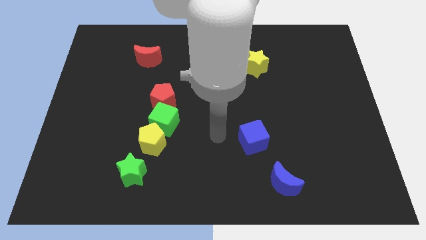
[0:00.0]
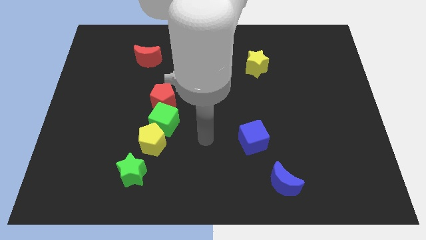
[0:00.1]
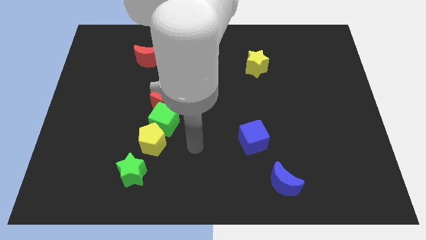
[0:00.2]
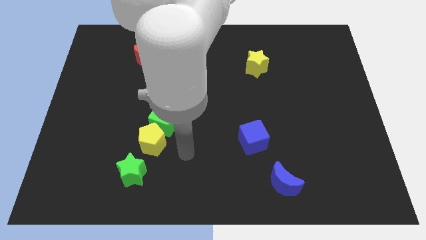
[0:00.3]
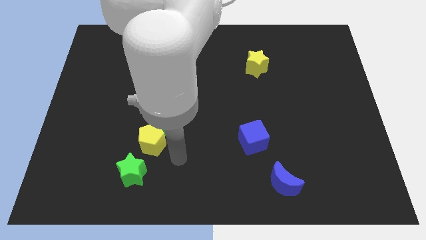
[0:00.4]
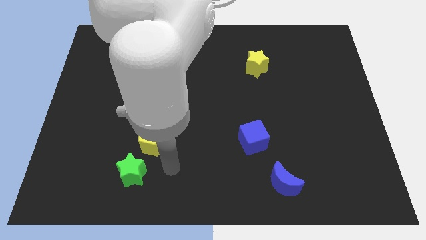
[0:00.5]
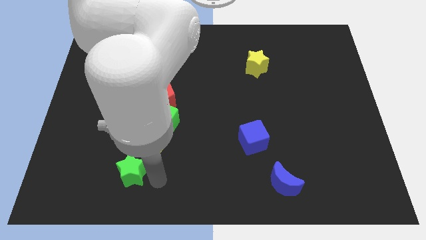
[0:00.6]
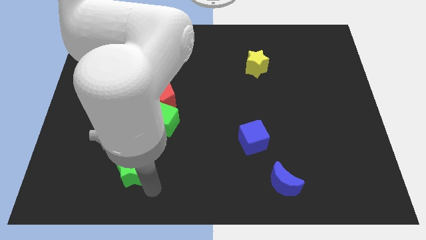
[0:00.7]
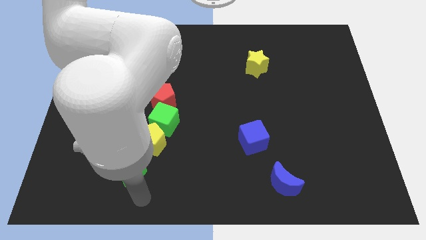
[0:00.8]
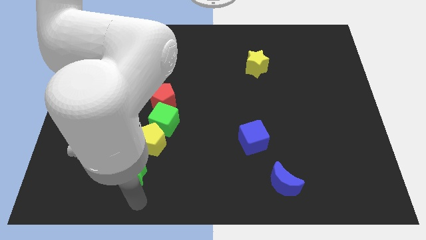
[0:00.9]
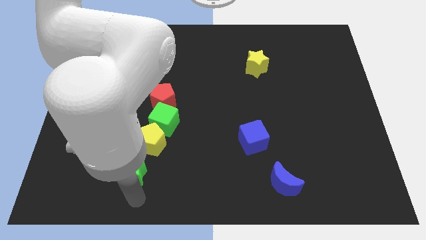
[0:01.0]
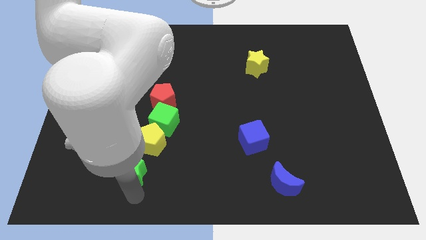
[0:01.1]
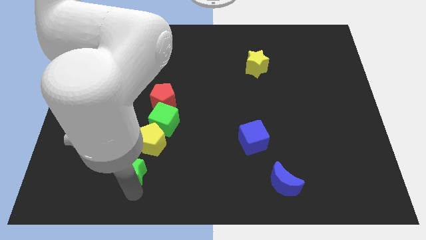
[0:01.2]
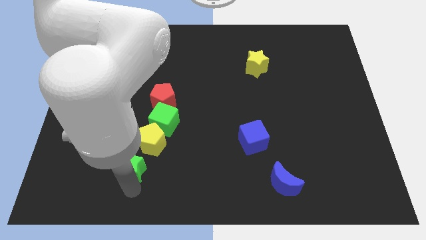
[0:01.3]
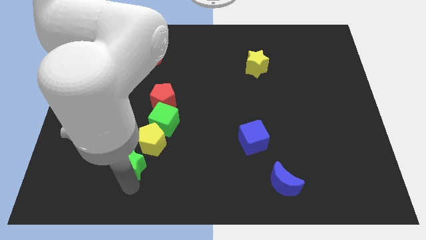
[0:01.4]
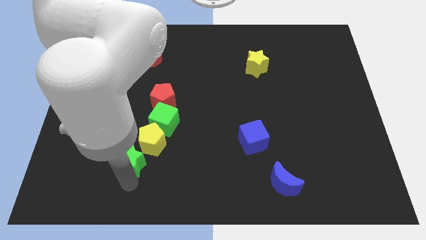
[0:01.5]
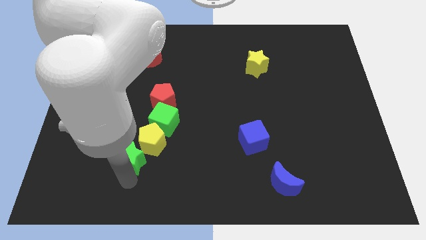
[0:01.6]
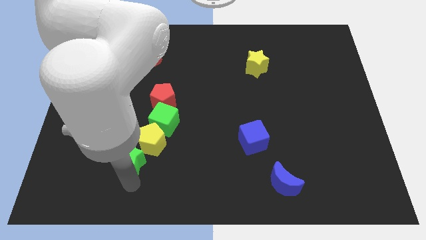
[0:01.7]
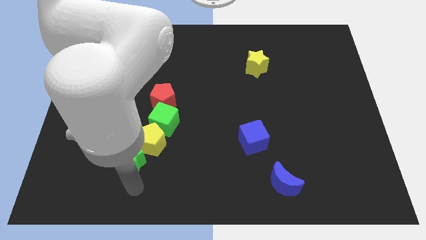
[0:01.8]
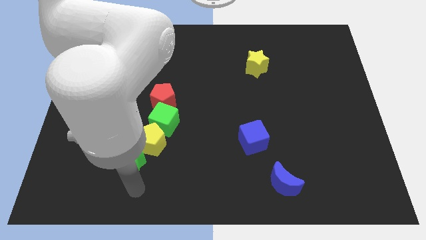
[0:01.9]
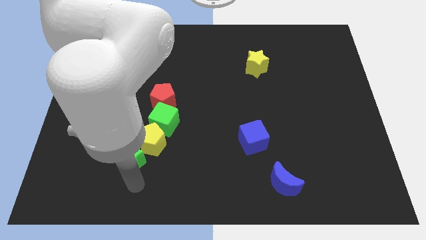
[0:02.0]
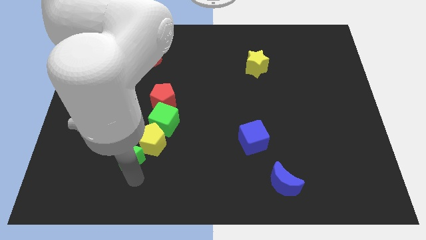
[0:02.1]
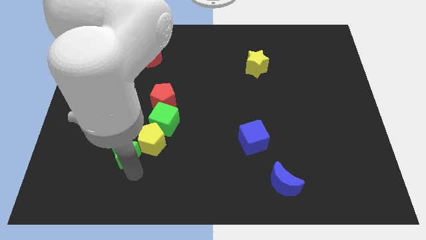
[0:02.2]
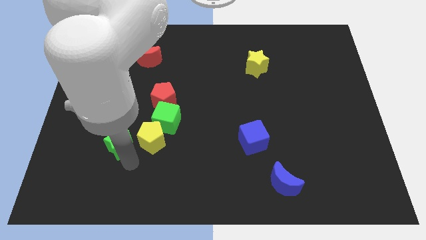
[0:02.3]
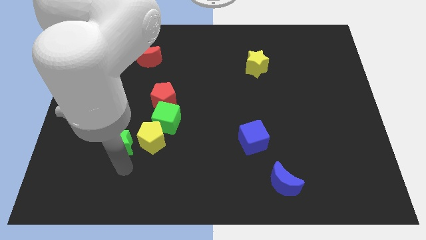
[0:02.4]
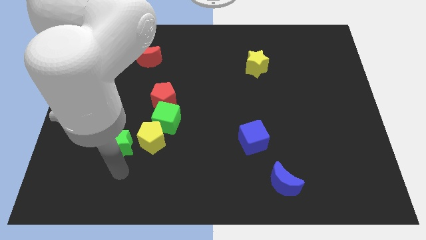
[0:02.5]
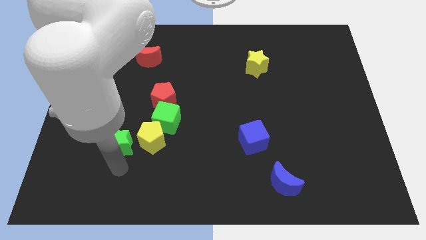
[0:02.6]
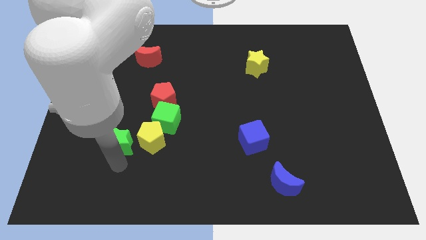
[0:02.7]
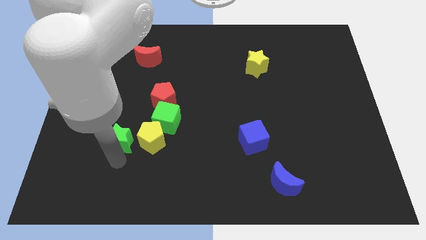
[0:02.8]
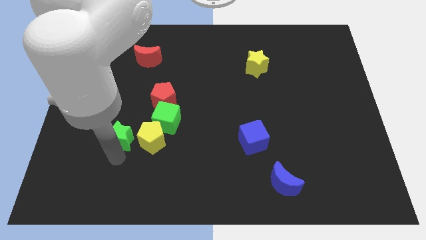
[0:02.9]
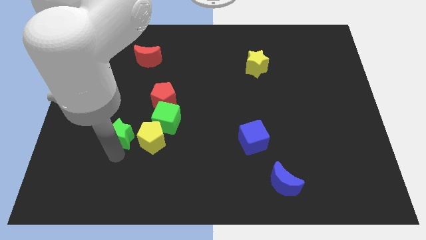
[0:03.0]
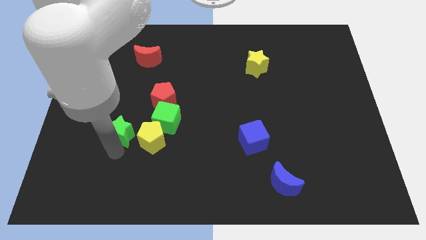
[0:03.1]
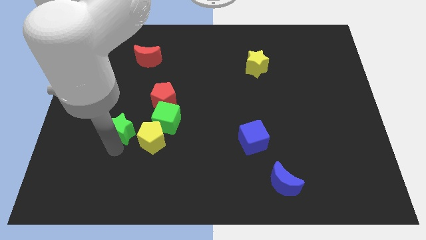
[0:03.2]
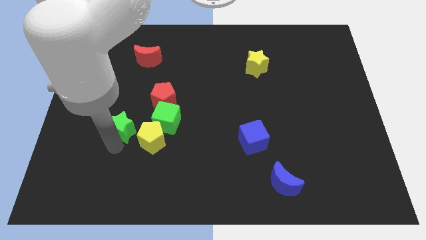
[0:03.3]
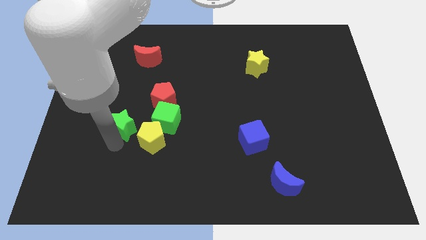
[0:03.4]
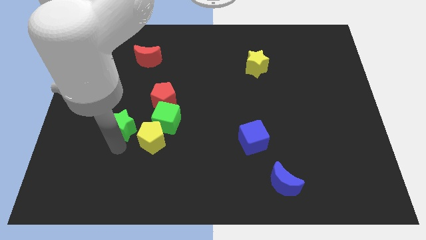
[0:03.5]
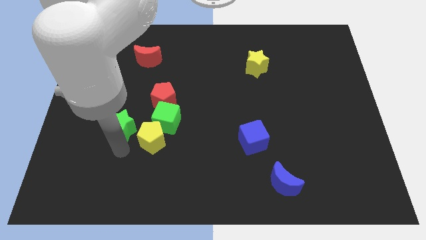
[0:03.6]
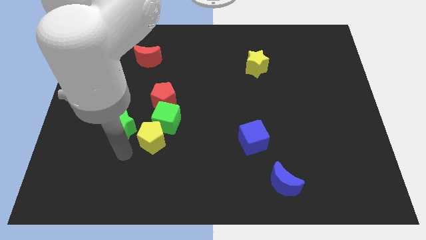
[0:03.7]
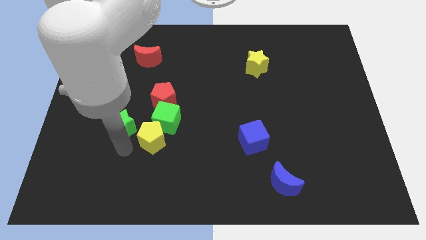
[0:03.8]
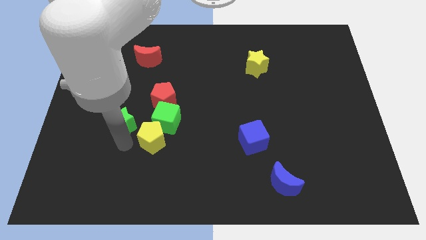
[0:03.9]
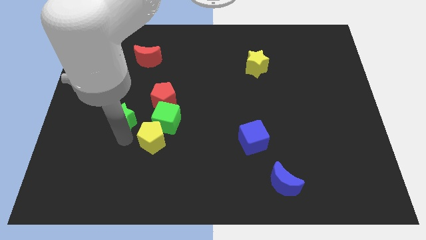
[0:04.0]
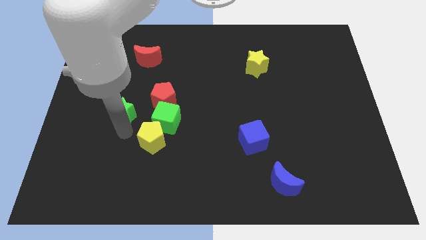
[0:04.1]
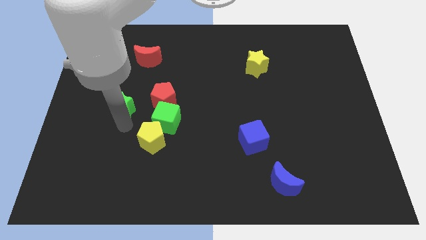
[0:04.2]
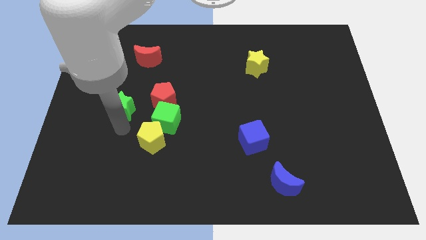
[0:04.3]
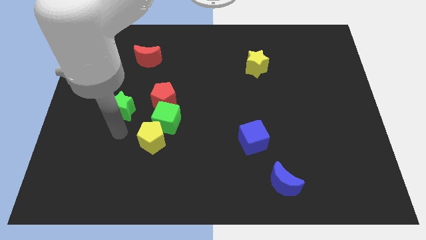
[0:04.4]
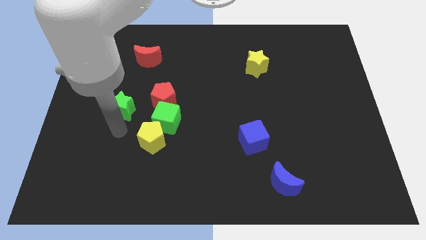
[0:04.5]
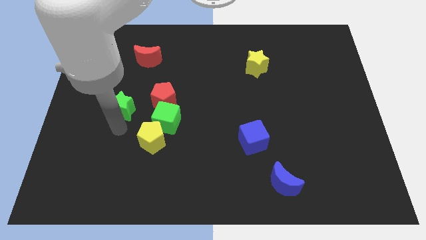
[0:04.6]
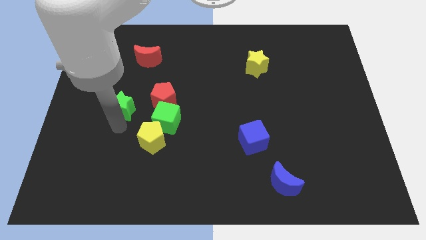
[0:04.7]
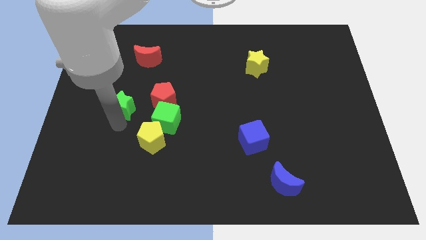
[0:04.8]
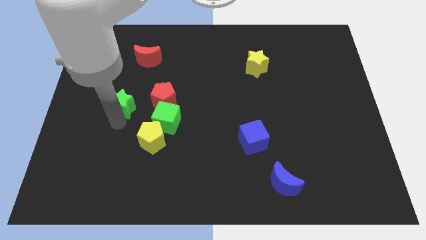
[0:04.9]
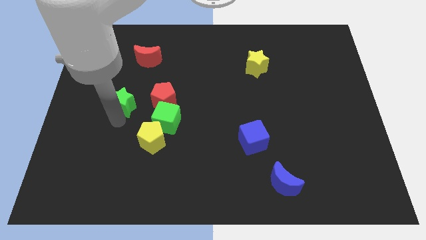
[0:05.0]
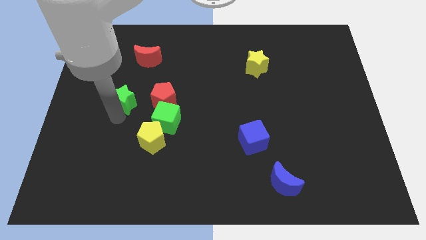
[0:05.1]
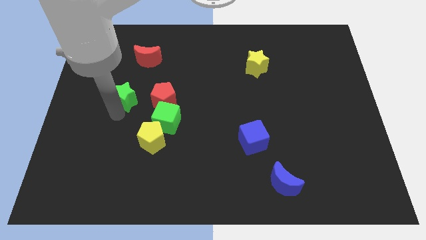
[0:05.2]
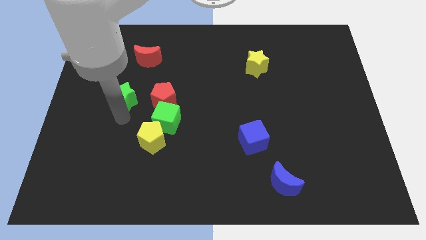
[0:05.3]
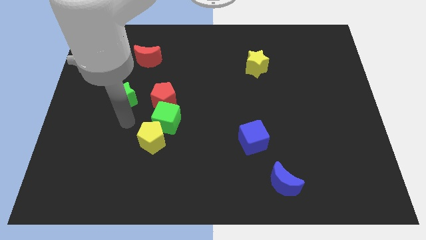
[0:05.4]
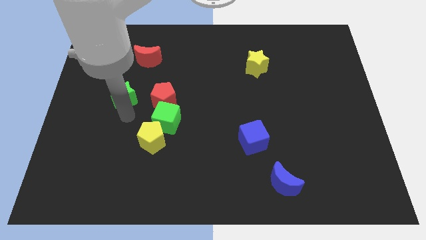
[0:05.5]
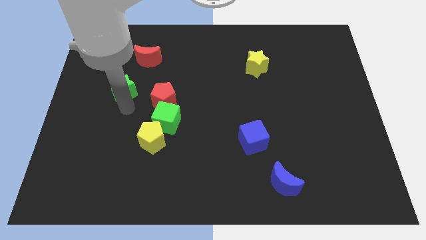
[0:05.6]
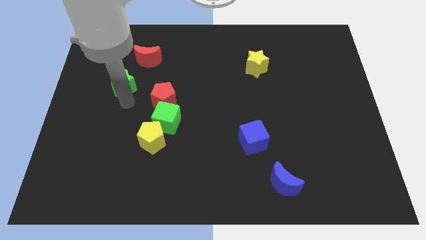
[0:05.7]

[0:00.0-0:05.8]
put the green star to the bottom left side of the red moon

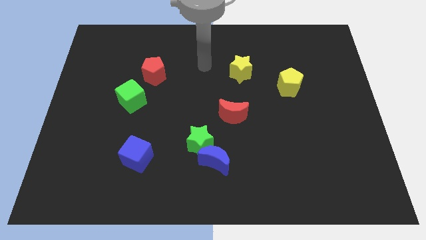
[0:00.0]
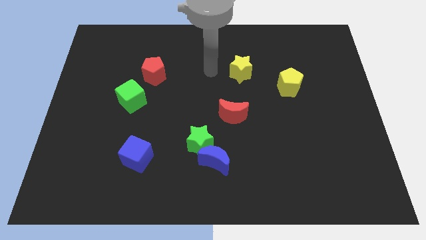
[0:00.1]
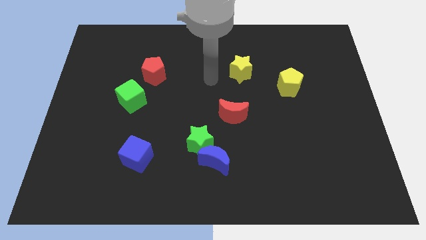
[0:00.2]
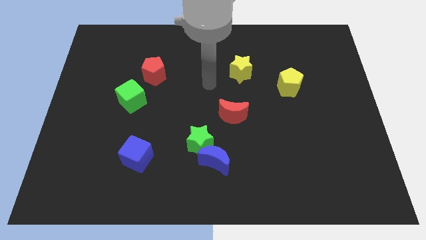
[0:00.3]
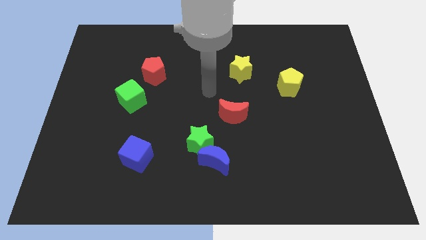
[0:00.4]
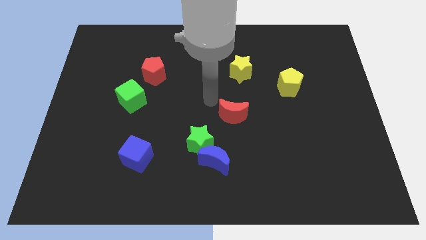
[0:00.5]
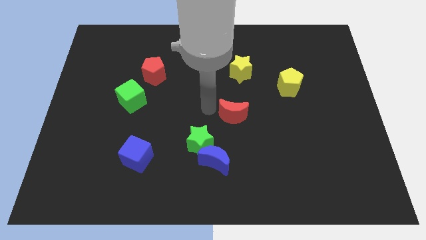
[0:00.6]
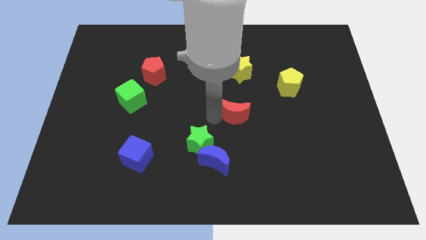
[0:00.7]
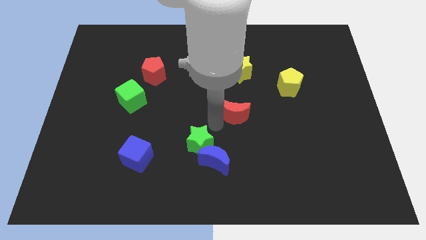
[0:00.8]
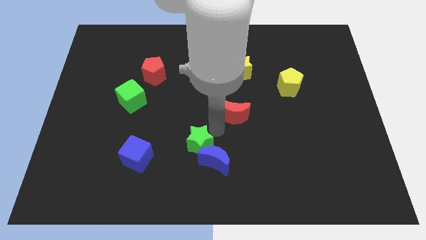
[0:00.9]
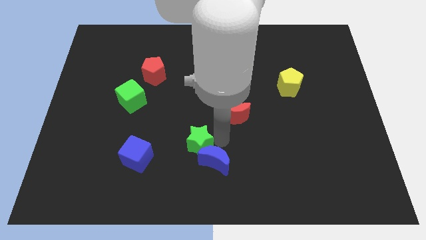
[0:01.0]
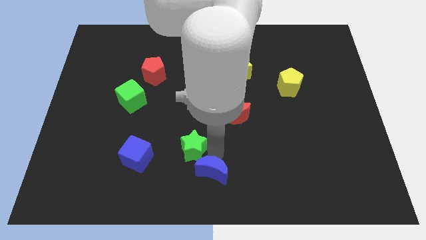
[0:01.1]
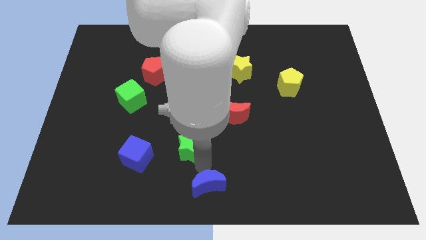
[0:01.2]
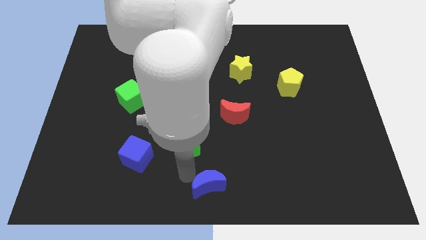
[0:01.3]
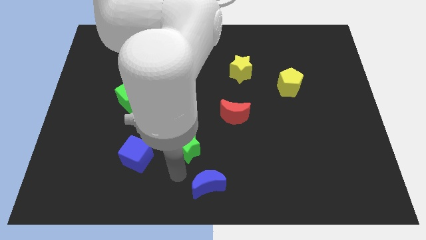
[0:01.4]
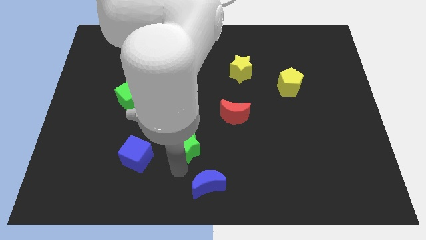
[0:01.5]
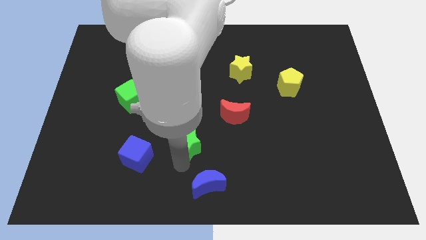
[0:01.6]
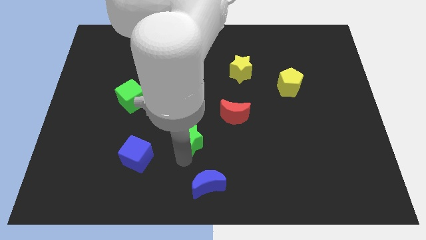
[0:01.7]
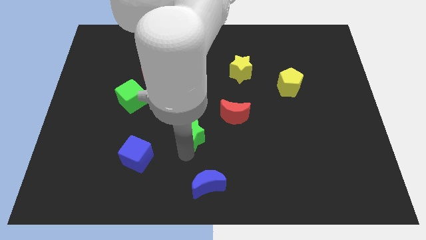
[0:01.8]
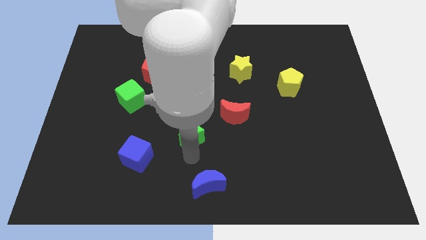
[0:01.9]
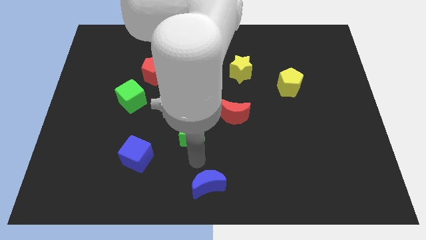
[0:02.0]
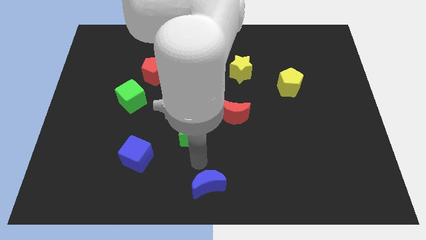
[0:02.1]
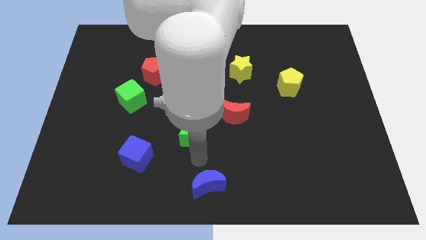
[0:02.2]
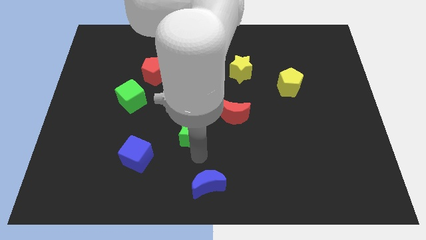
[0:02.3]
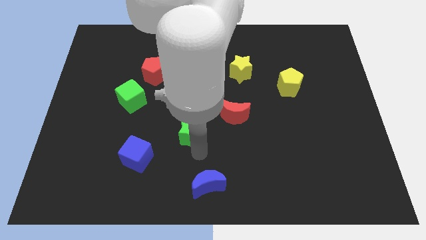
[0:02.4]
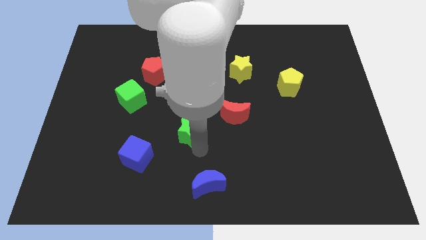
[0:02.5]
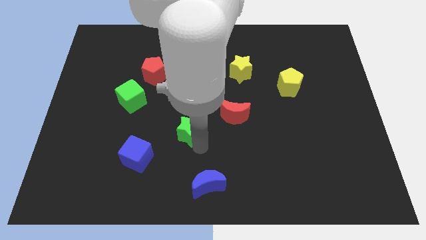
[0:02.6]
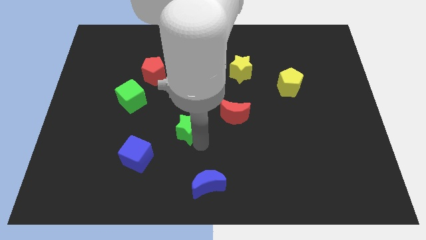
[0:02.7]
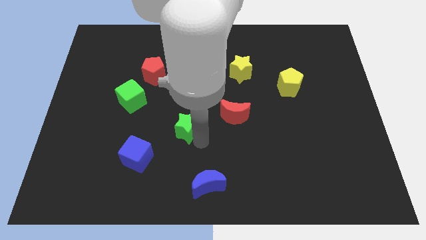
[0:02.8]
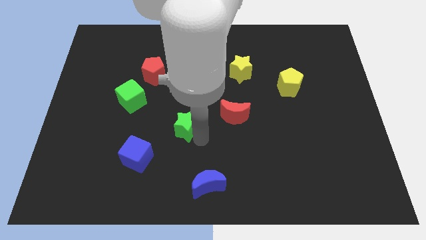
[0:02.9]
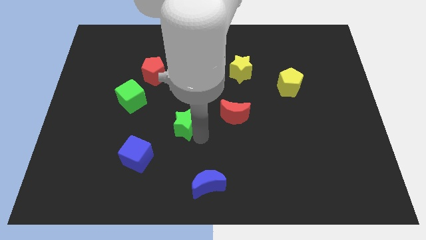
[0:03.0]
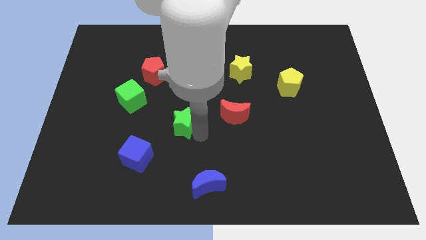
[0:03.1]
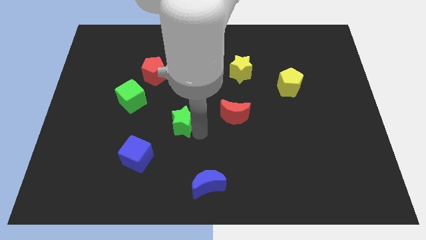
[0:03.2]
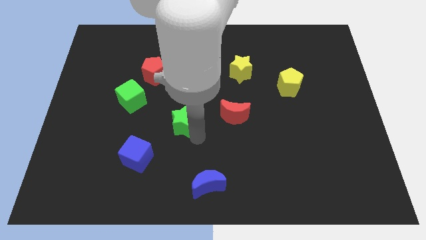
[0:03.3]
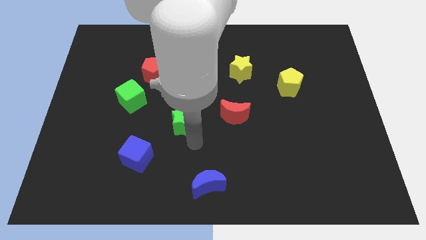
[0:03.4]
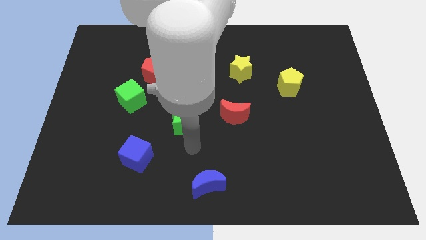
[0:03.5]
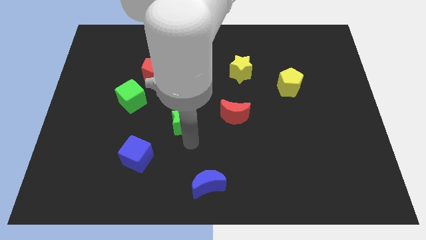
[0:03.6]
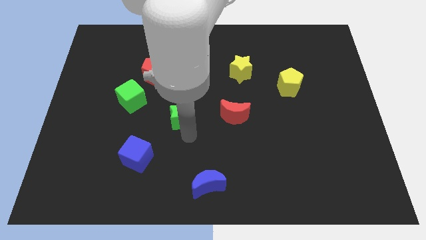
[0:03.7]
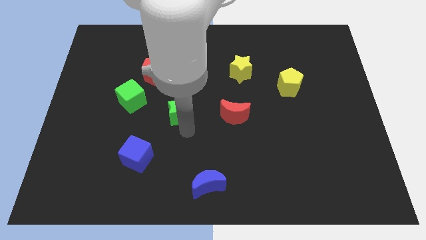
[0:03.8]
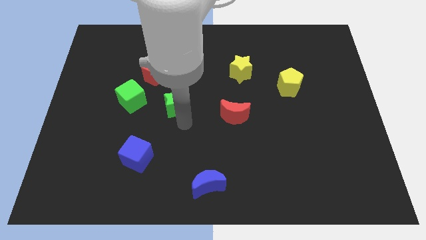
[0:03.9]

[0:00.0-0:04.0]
push the green star to the bottom right of the red pentagon
